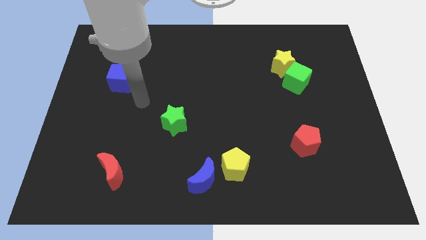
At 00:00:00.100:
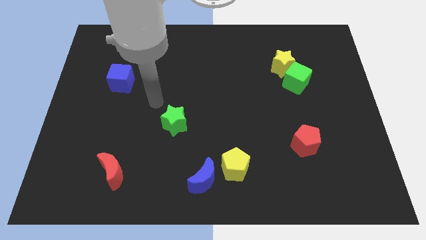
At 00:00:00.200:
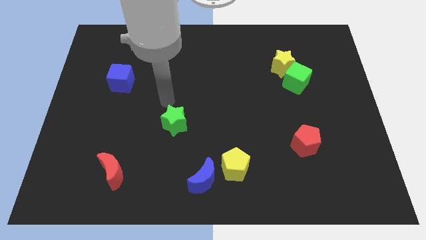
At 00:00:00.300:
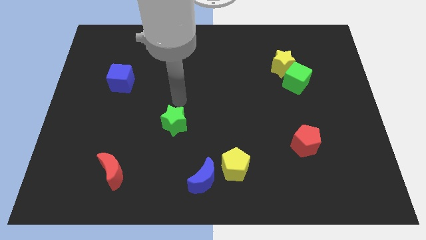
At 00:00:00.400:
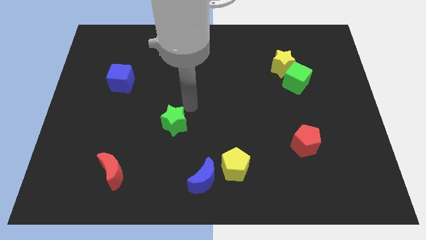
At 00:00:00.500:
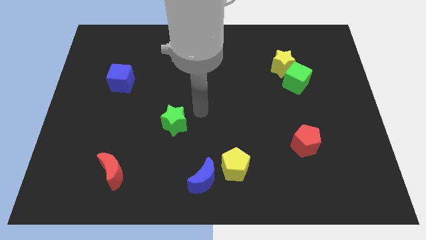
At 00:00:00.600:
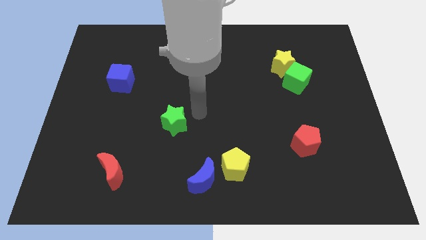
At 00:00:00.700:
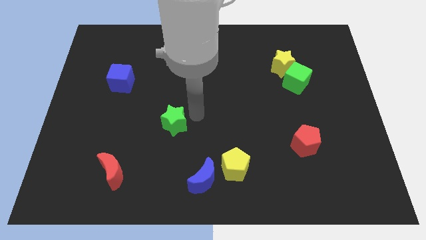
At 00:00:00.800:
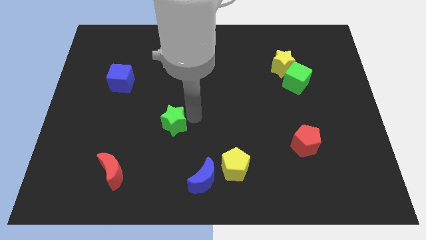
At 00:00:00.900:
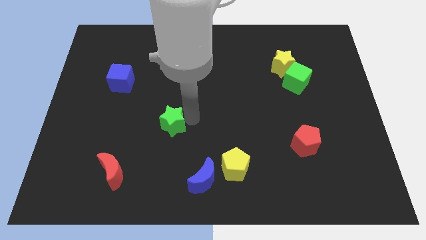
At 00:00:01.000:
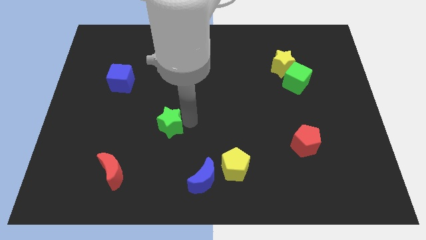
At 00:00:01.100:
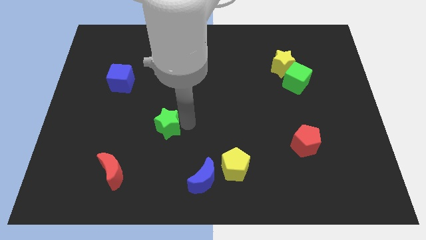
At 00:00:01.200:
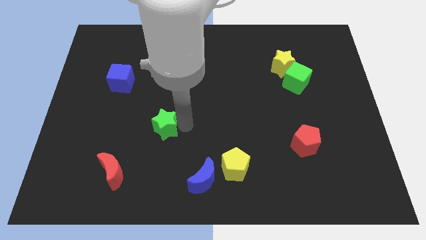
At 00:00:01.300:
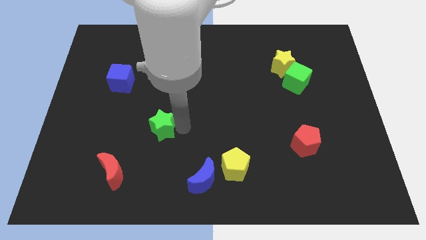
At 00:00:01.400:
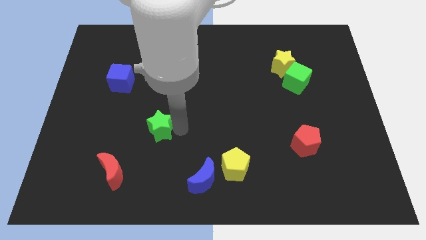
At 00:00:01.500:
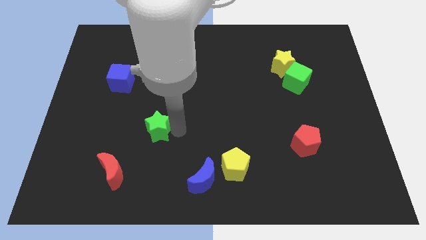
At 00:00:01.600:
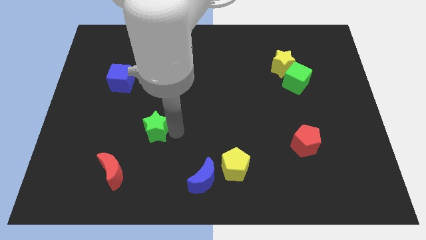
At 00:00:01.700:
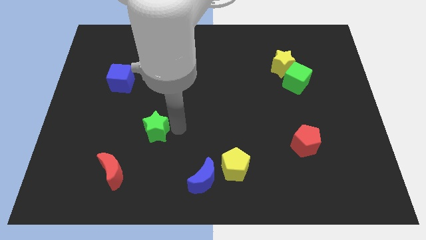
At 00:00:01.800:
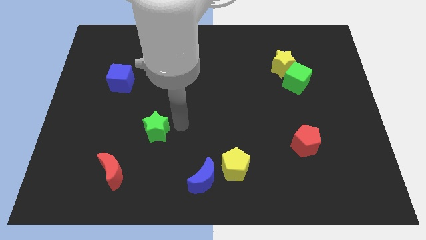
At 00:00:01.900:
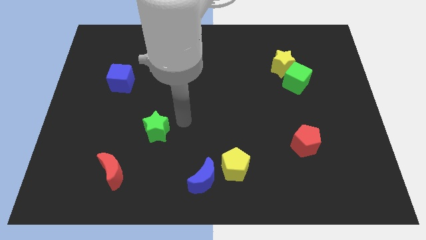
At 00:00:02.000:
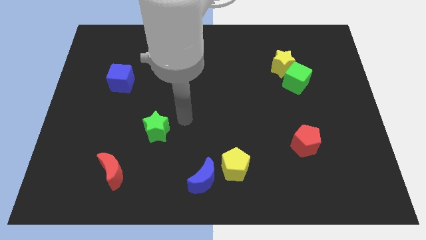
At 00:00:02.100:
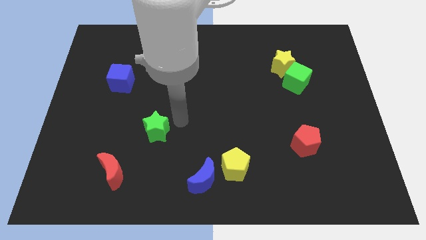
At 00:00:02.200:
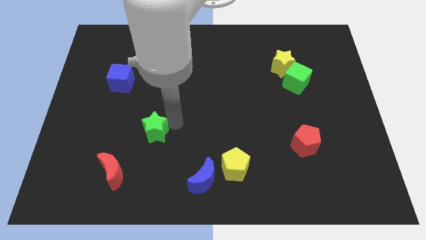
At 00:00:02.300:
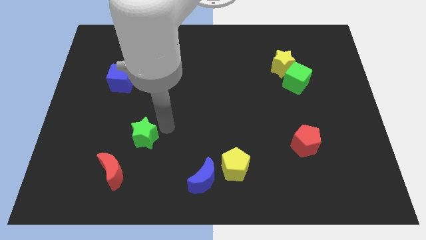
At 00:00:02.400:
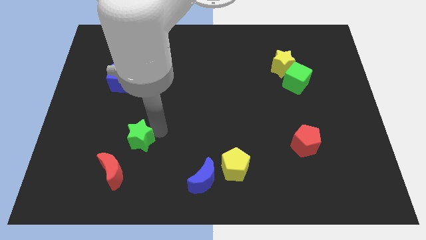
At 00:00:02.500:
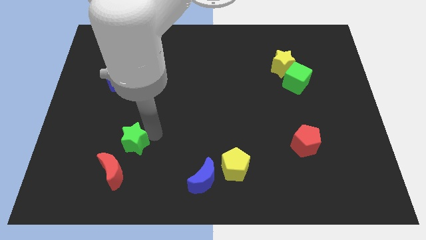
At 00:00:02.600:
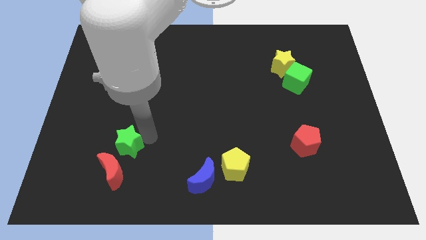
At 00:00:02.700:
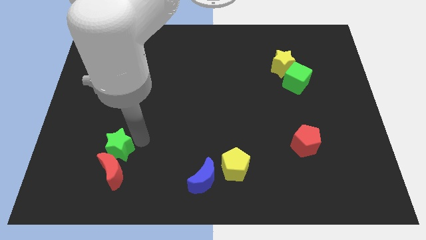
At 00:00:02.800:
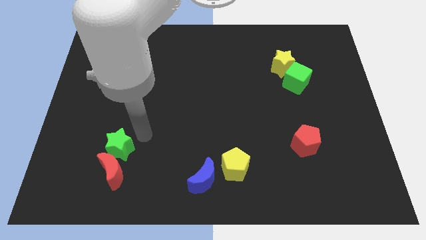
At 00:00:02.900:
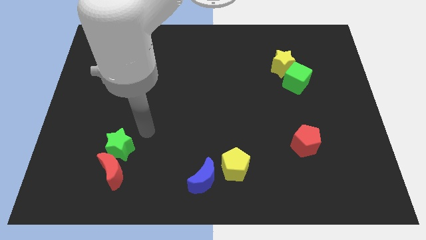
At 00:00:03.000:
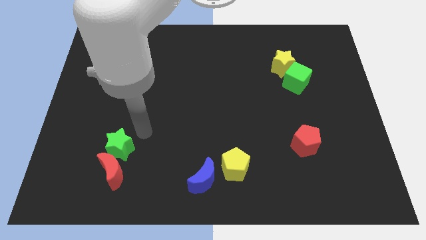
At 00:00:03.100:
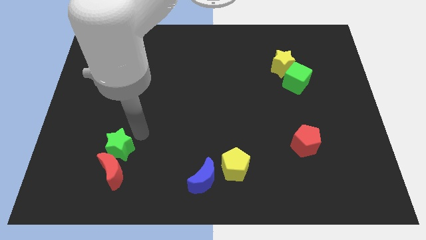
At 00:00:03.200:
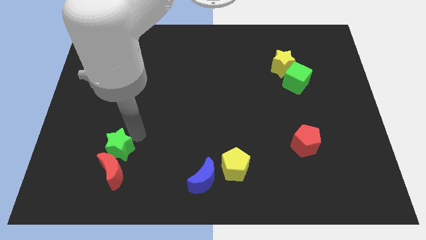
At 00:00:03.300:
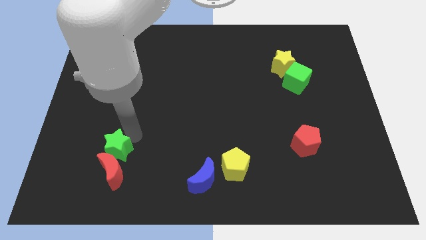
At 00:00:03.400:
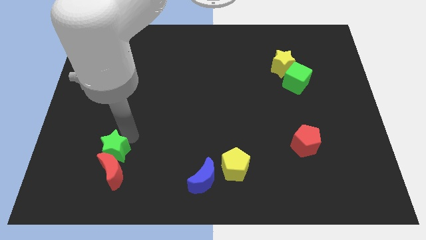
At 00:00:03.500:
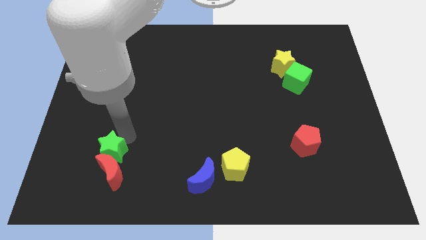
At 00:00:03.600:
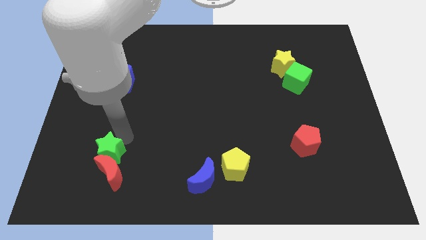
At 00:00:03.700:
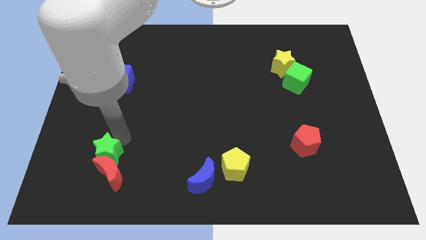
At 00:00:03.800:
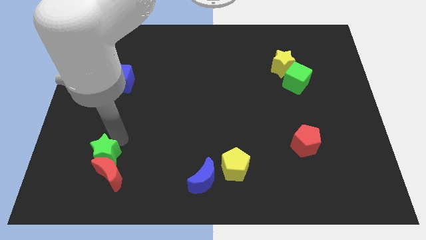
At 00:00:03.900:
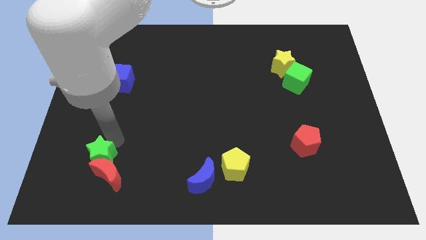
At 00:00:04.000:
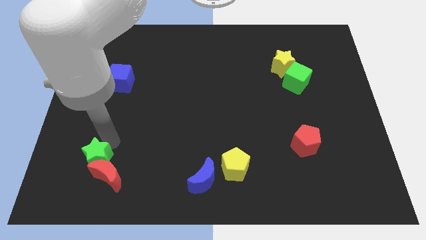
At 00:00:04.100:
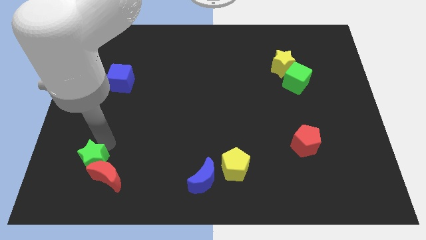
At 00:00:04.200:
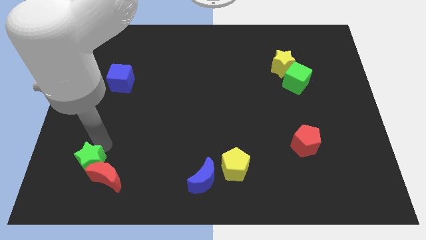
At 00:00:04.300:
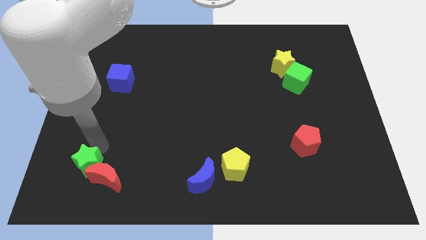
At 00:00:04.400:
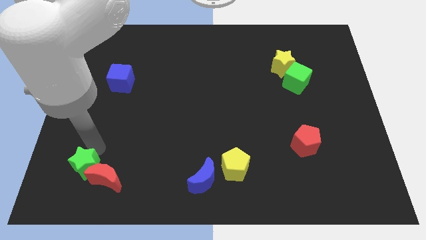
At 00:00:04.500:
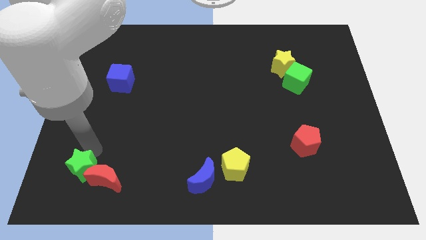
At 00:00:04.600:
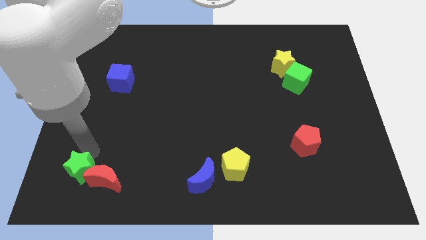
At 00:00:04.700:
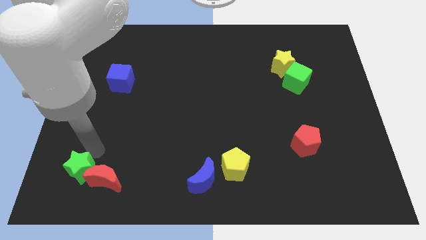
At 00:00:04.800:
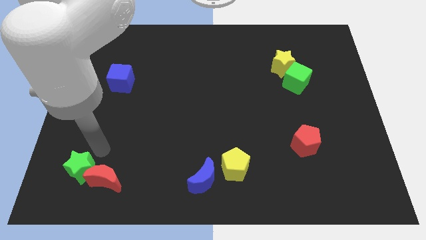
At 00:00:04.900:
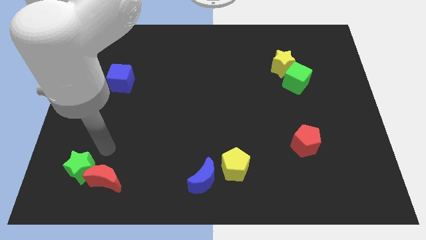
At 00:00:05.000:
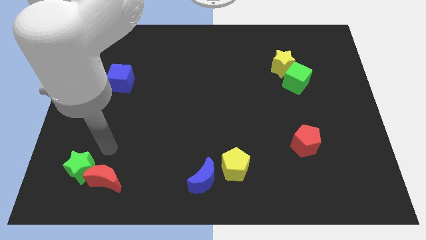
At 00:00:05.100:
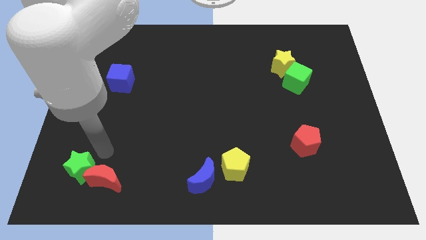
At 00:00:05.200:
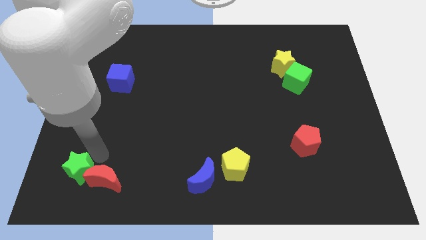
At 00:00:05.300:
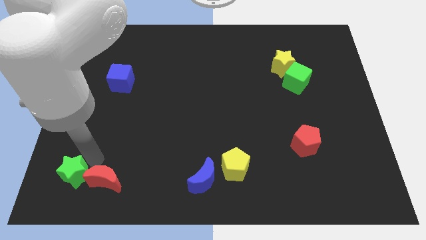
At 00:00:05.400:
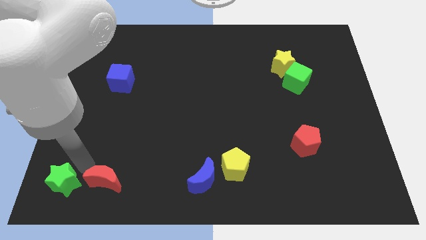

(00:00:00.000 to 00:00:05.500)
move the green star to the bottom left corner

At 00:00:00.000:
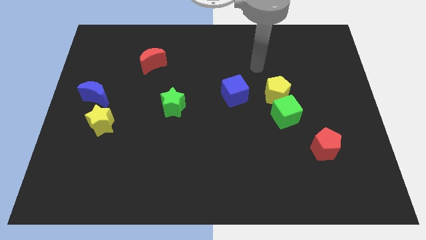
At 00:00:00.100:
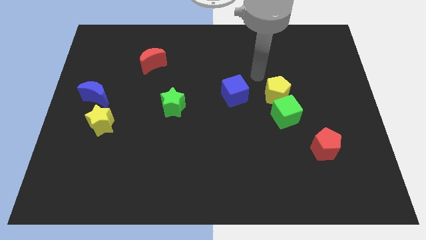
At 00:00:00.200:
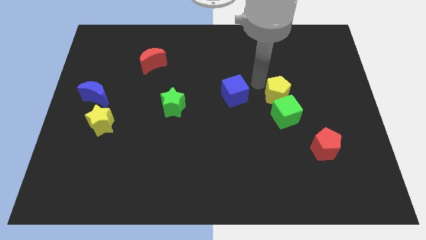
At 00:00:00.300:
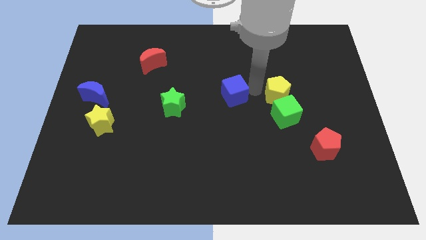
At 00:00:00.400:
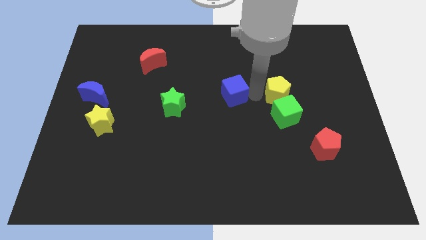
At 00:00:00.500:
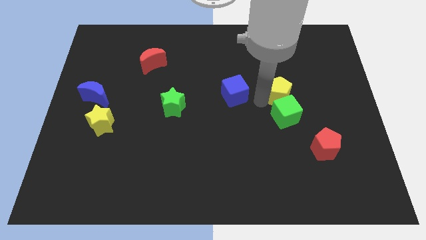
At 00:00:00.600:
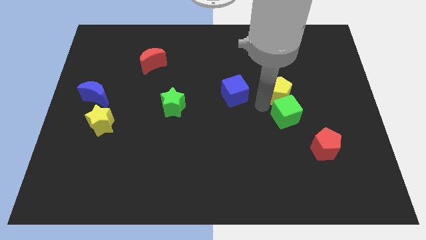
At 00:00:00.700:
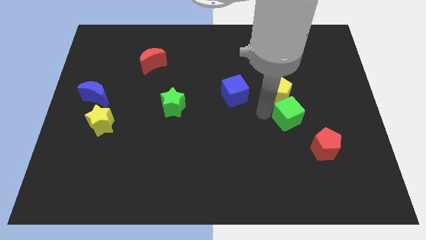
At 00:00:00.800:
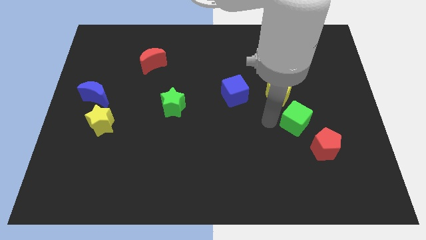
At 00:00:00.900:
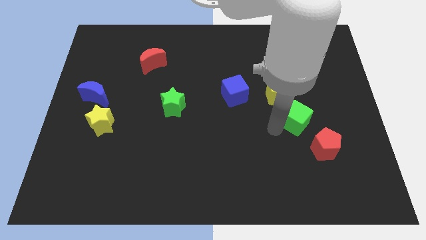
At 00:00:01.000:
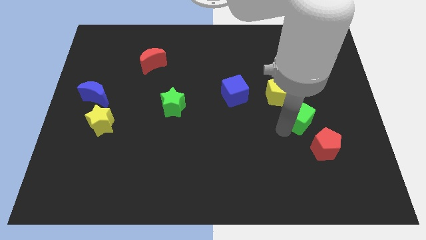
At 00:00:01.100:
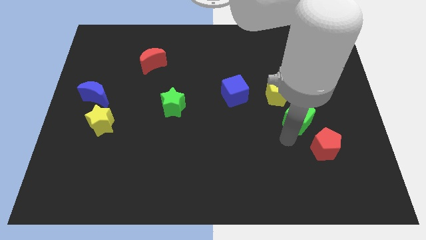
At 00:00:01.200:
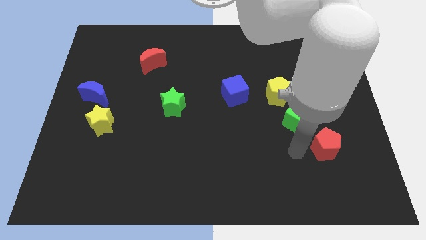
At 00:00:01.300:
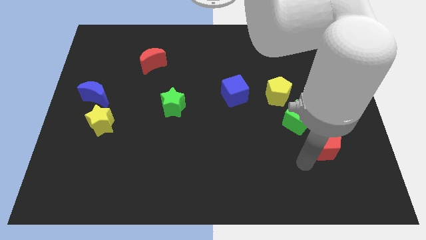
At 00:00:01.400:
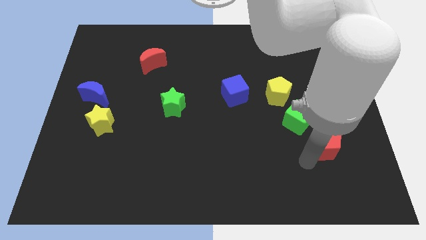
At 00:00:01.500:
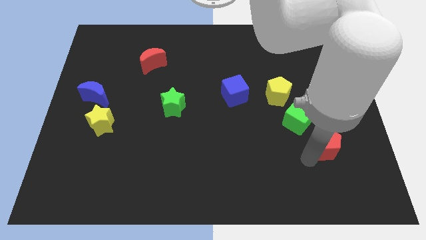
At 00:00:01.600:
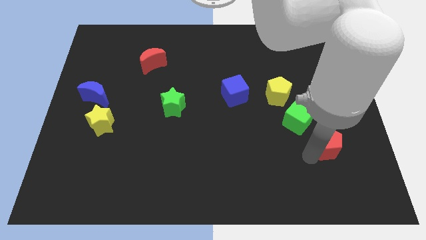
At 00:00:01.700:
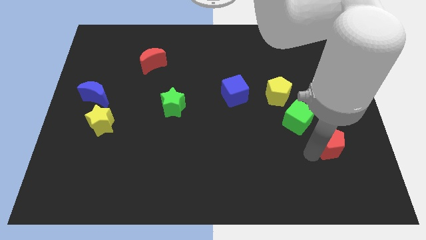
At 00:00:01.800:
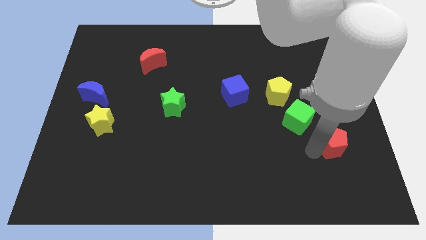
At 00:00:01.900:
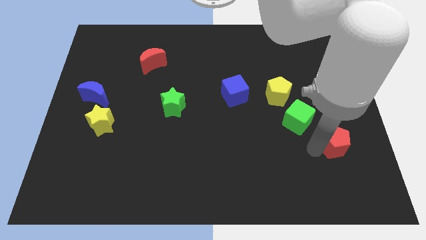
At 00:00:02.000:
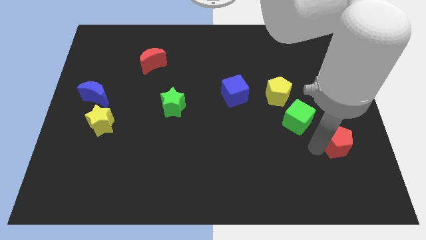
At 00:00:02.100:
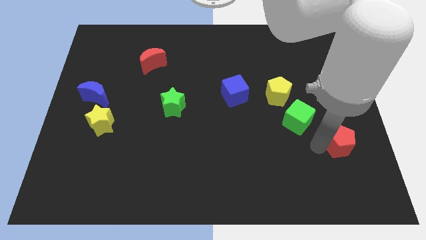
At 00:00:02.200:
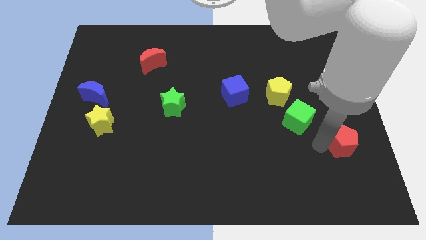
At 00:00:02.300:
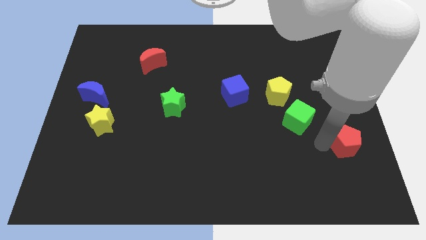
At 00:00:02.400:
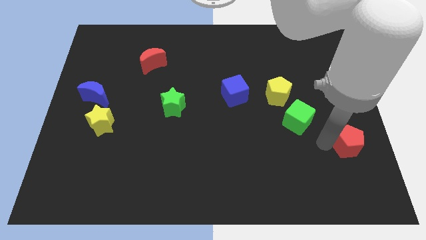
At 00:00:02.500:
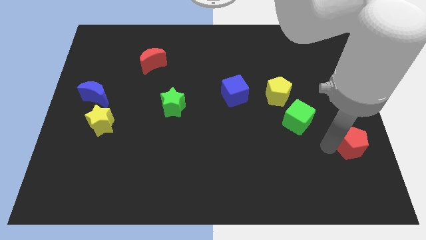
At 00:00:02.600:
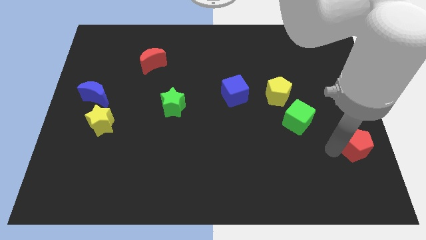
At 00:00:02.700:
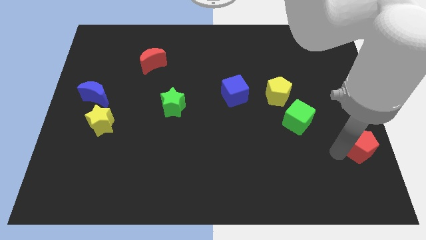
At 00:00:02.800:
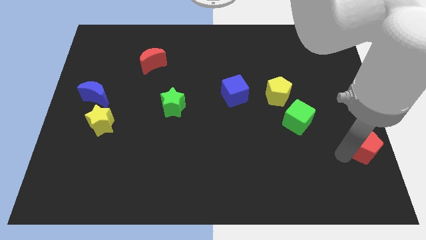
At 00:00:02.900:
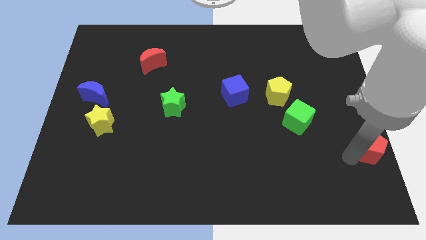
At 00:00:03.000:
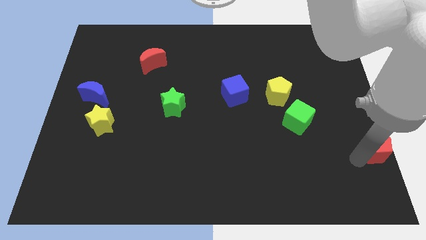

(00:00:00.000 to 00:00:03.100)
slide the red pentagon to the right side
